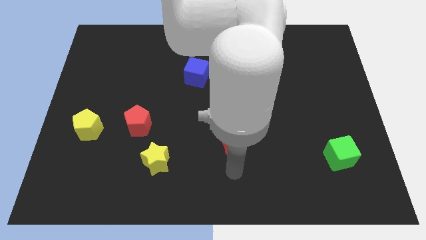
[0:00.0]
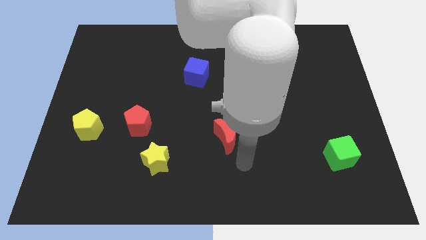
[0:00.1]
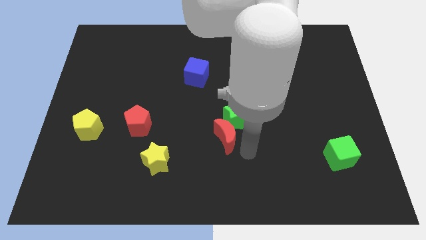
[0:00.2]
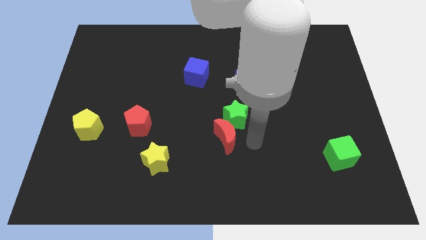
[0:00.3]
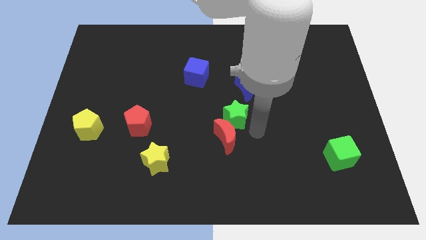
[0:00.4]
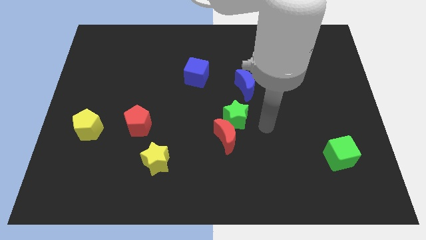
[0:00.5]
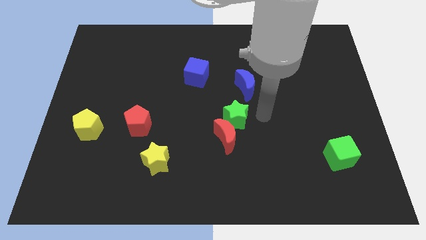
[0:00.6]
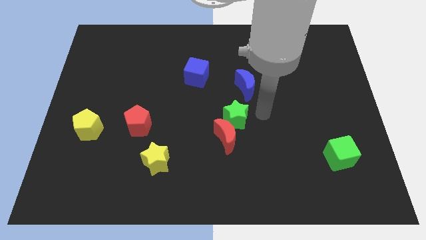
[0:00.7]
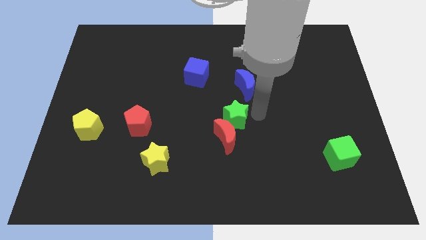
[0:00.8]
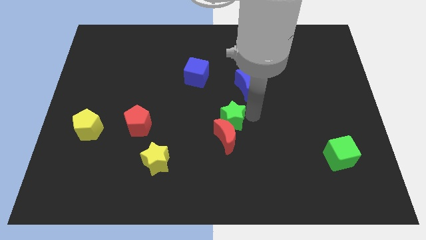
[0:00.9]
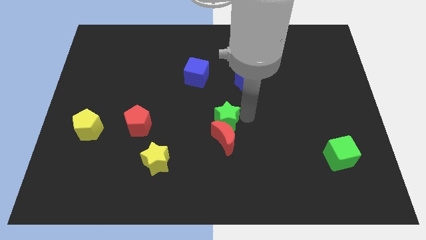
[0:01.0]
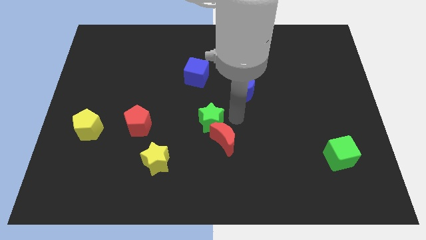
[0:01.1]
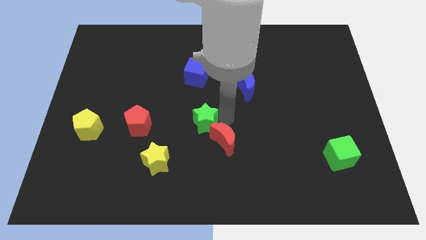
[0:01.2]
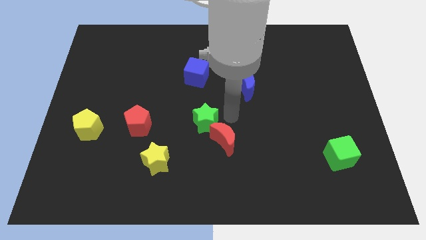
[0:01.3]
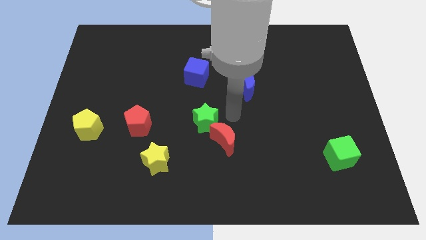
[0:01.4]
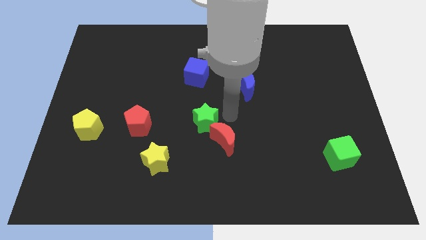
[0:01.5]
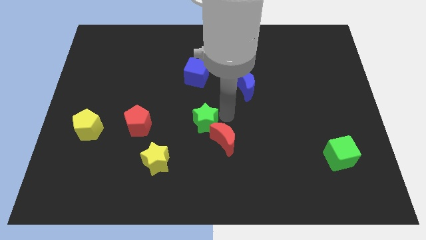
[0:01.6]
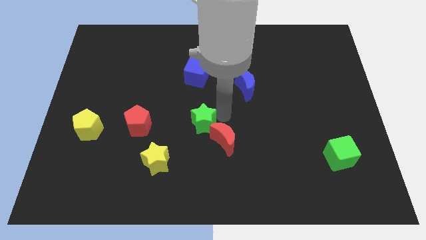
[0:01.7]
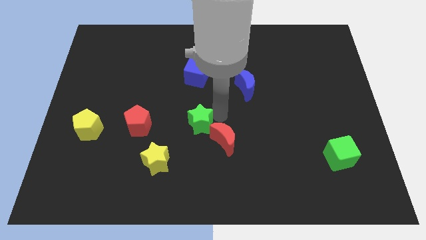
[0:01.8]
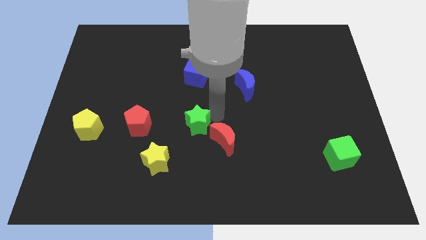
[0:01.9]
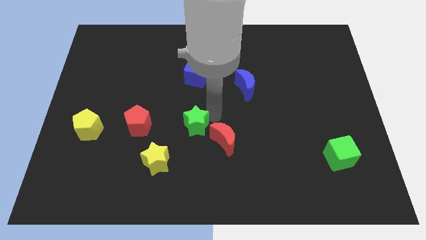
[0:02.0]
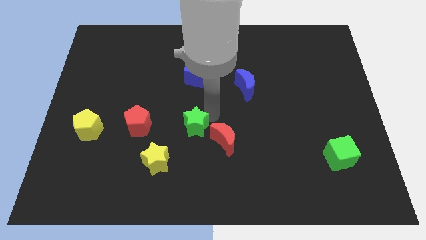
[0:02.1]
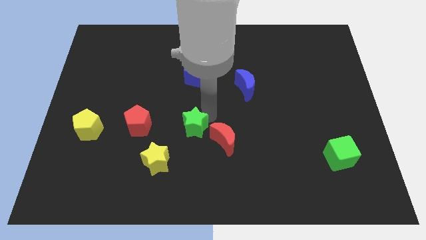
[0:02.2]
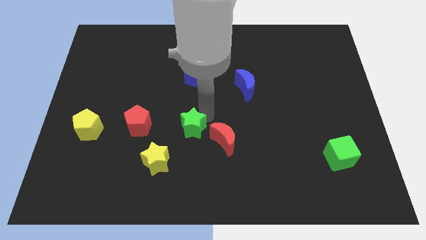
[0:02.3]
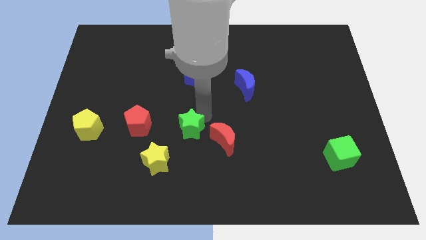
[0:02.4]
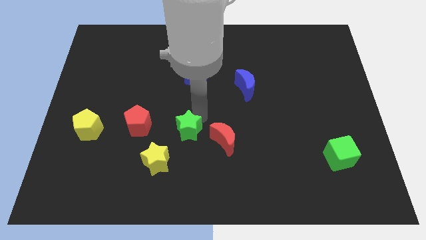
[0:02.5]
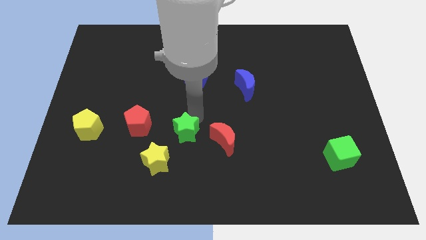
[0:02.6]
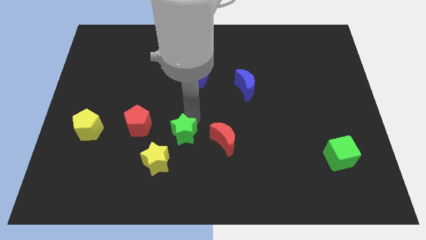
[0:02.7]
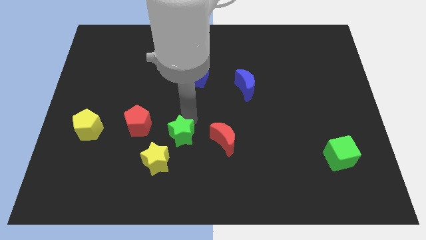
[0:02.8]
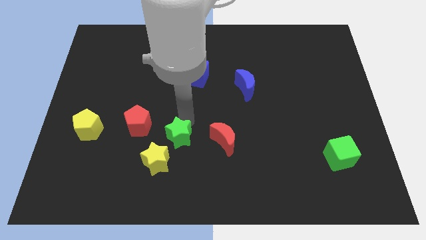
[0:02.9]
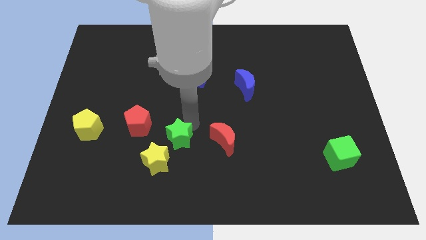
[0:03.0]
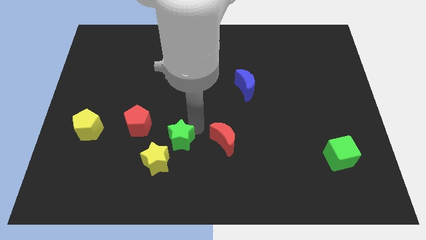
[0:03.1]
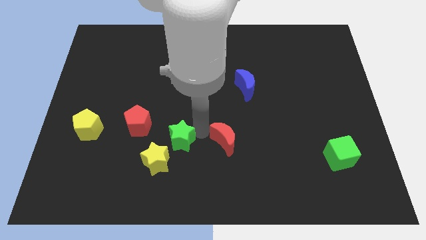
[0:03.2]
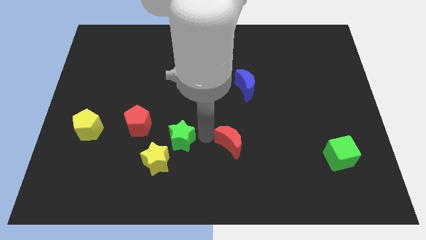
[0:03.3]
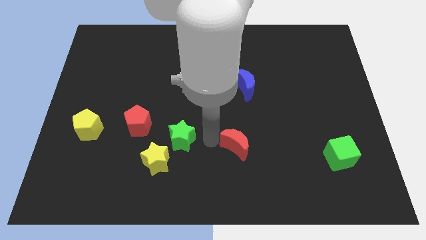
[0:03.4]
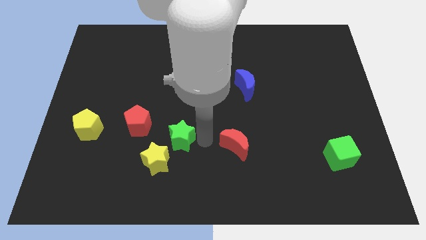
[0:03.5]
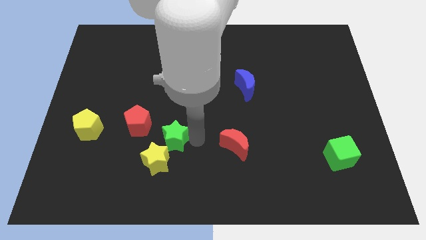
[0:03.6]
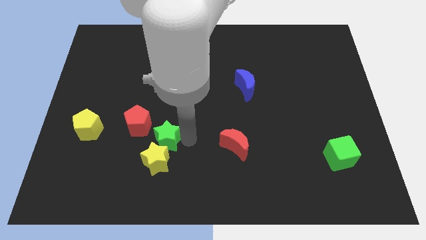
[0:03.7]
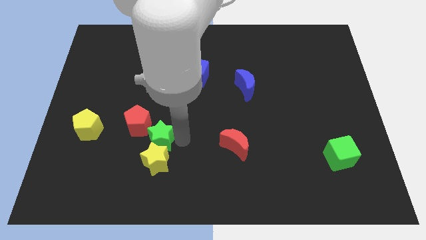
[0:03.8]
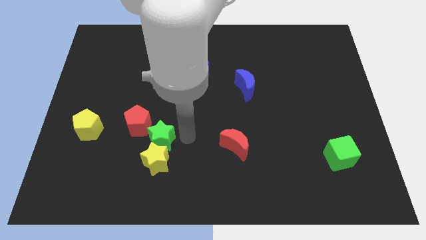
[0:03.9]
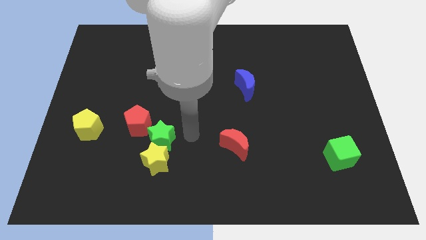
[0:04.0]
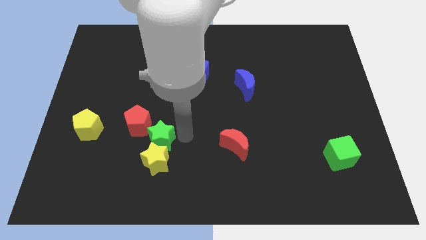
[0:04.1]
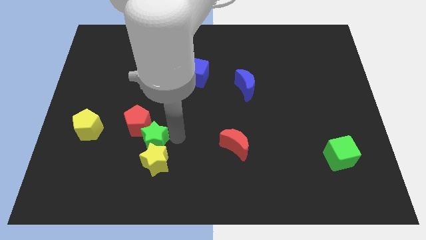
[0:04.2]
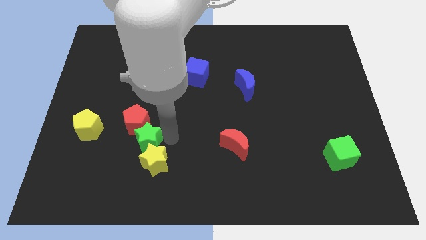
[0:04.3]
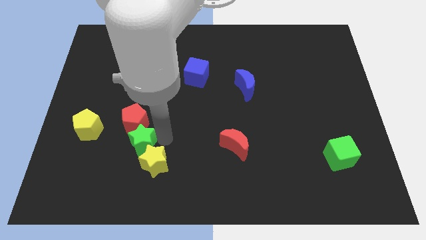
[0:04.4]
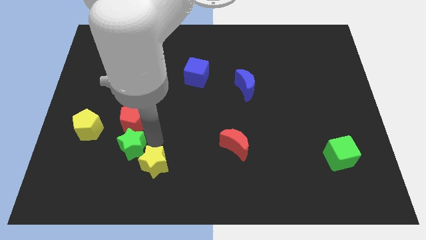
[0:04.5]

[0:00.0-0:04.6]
move the green star diagonally down and to the left of the red pentagon

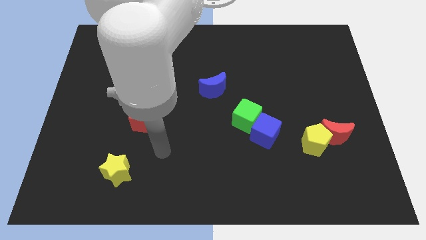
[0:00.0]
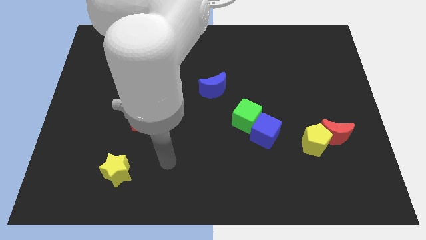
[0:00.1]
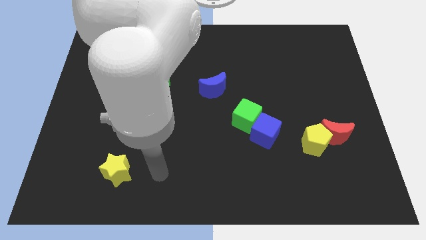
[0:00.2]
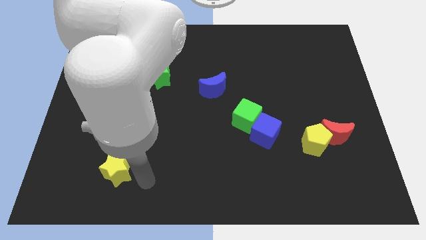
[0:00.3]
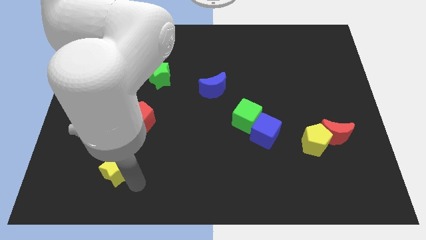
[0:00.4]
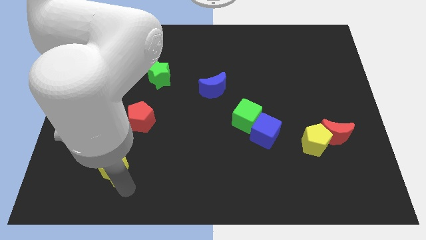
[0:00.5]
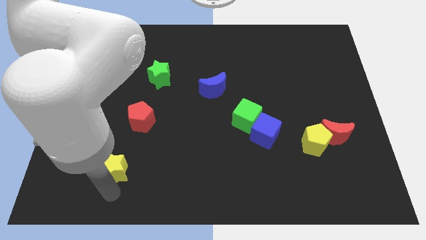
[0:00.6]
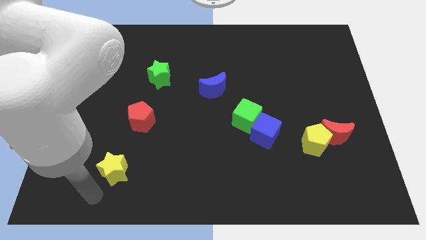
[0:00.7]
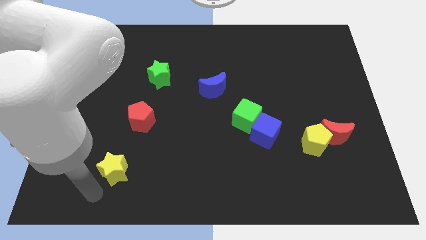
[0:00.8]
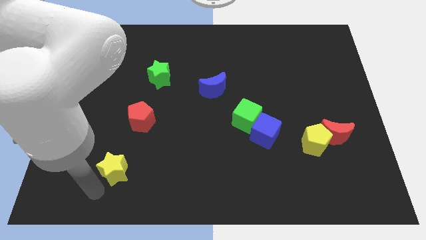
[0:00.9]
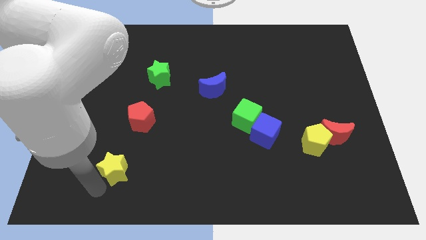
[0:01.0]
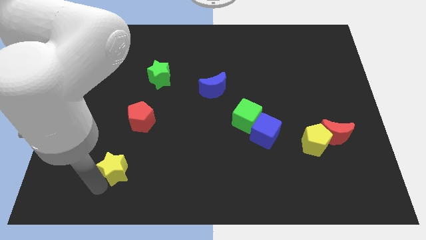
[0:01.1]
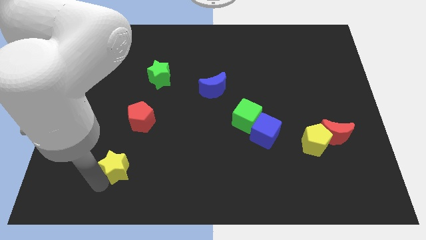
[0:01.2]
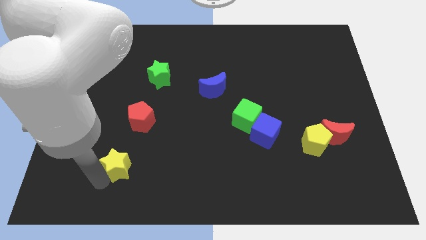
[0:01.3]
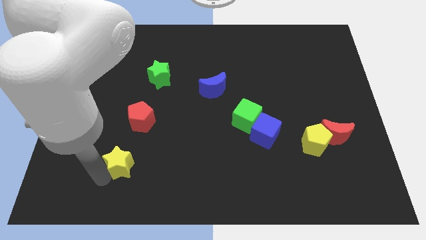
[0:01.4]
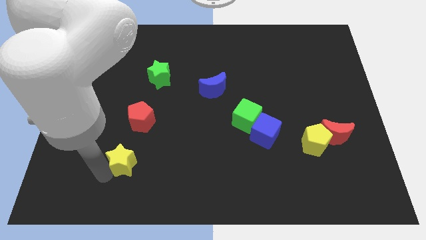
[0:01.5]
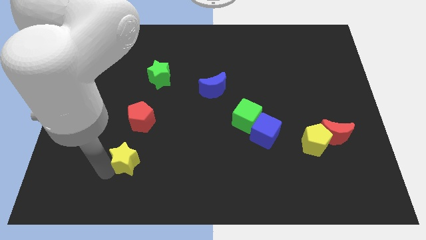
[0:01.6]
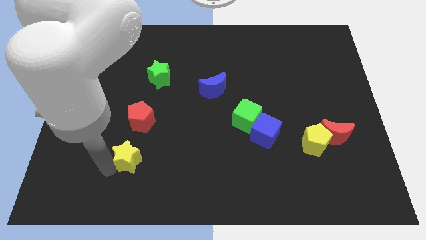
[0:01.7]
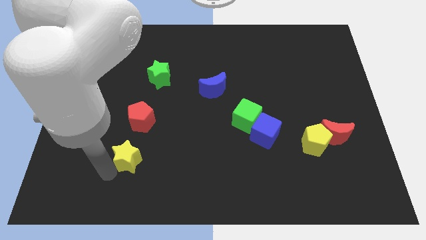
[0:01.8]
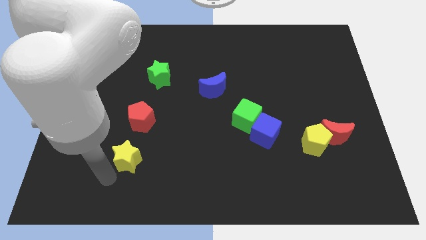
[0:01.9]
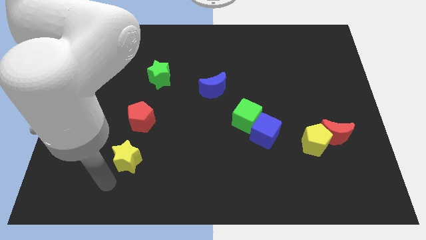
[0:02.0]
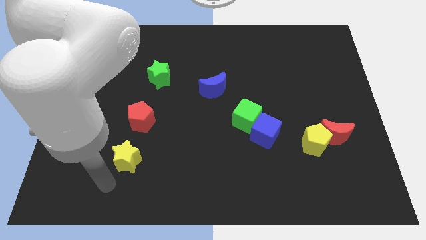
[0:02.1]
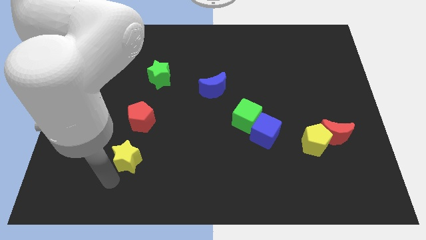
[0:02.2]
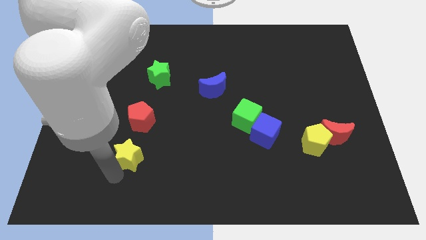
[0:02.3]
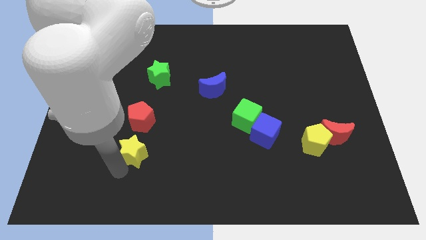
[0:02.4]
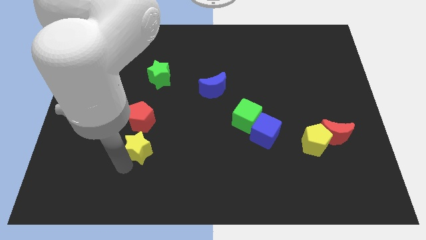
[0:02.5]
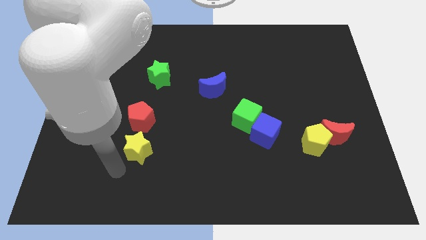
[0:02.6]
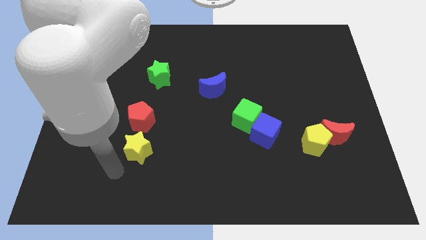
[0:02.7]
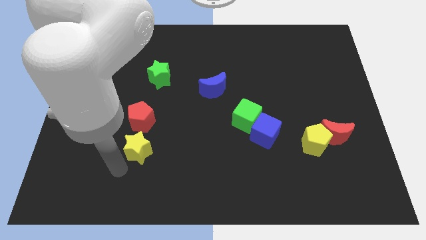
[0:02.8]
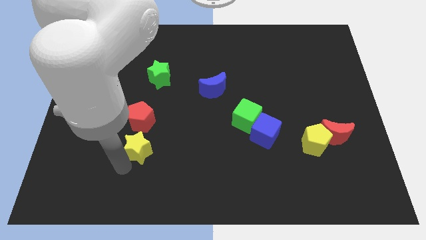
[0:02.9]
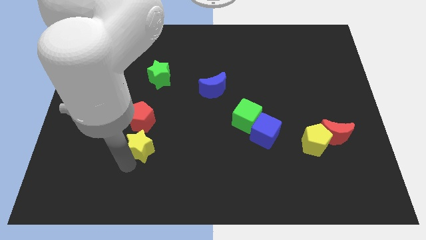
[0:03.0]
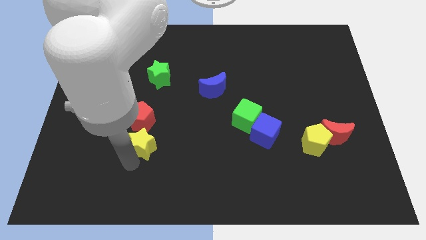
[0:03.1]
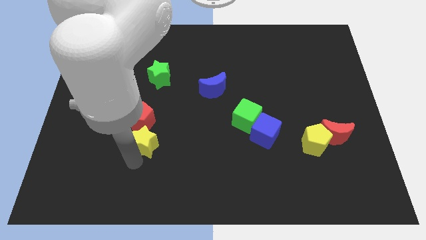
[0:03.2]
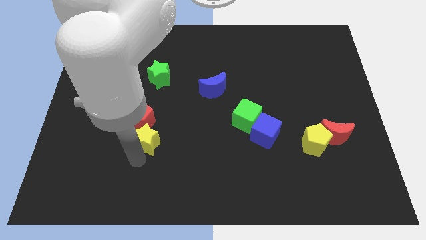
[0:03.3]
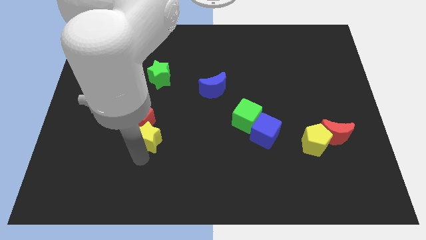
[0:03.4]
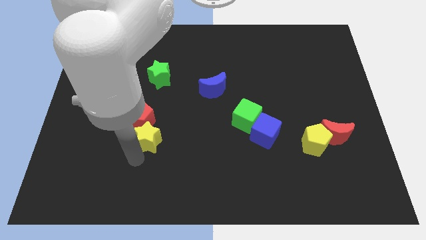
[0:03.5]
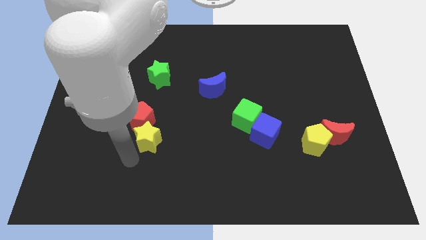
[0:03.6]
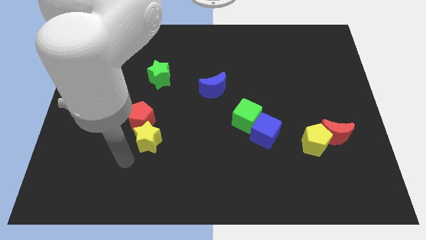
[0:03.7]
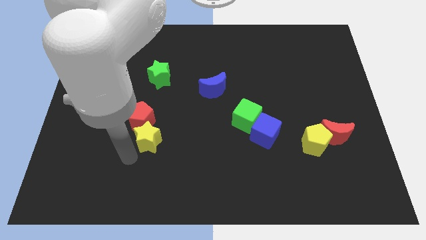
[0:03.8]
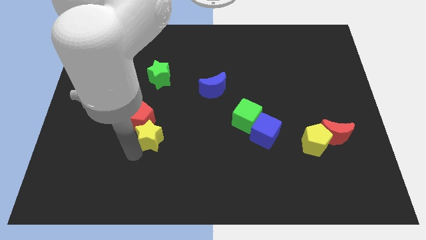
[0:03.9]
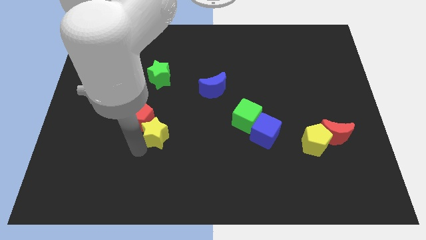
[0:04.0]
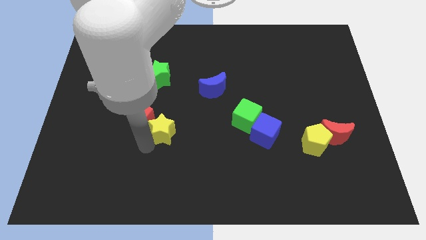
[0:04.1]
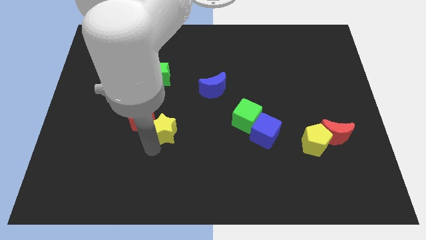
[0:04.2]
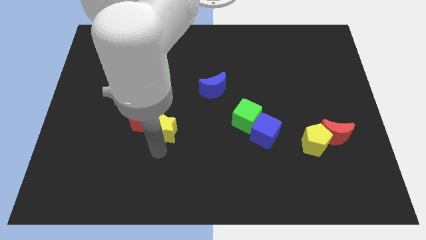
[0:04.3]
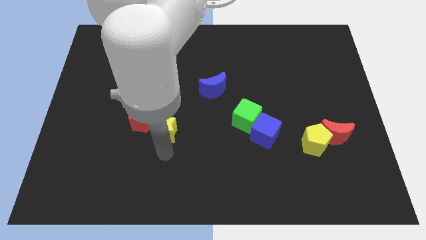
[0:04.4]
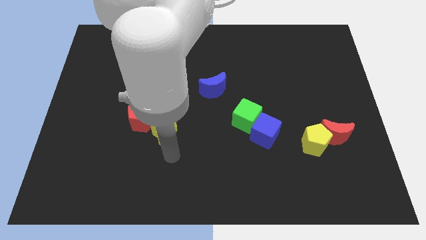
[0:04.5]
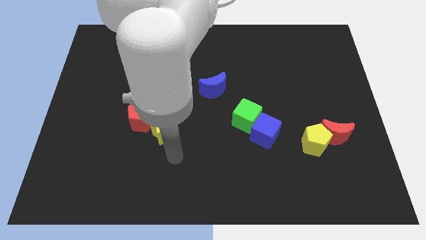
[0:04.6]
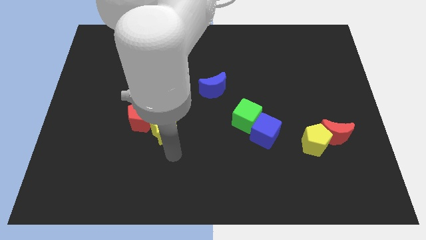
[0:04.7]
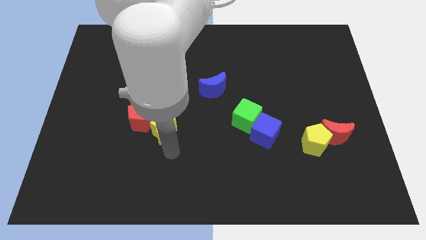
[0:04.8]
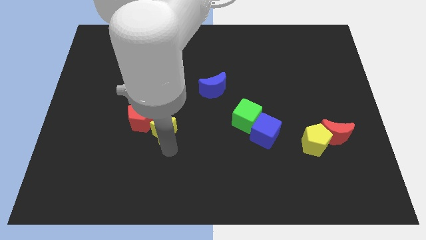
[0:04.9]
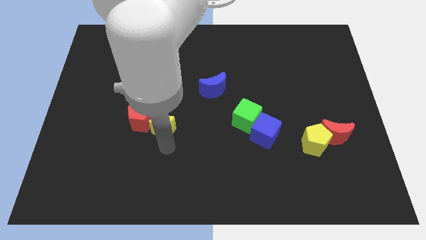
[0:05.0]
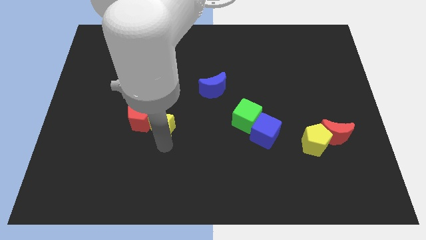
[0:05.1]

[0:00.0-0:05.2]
slide the yellow star below the green star
